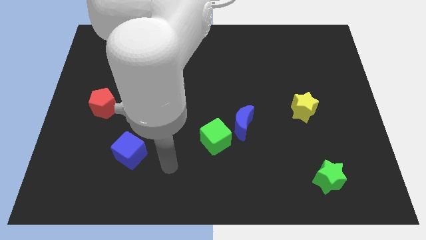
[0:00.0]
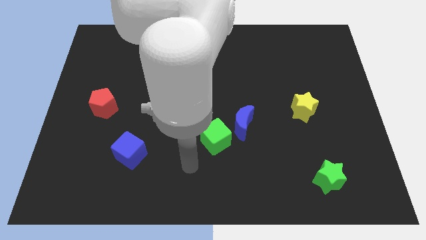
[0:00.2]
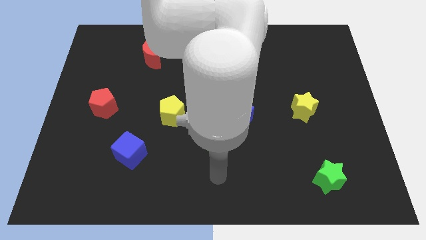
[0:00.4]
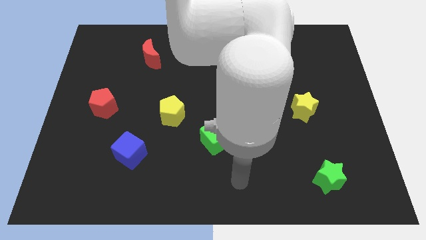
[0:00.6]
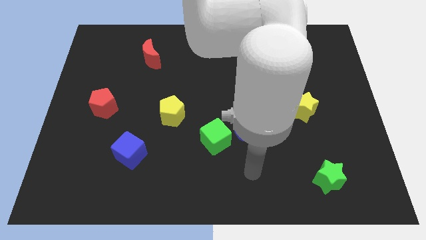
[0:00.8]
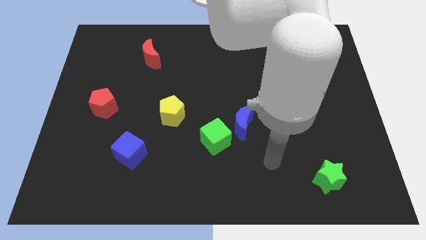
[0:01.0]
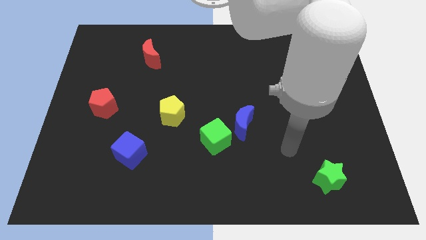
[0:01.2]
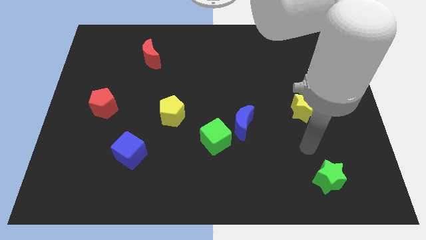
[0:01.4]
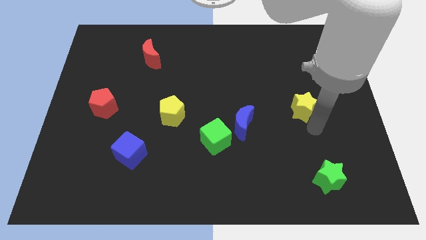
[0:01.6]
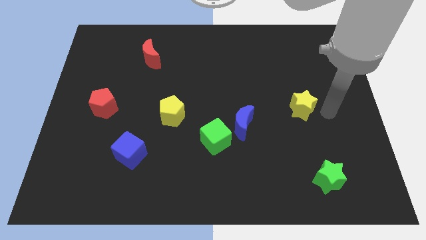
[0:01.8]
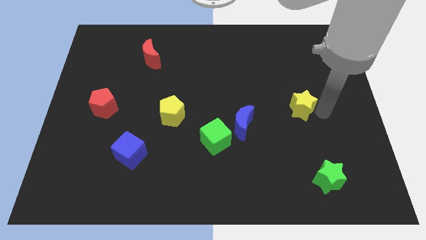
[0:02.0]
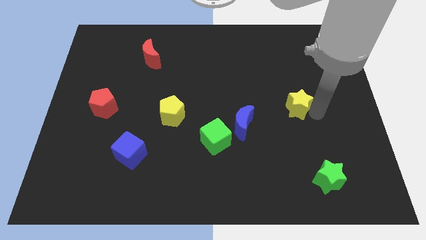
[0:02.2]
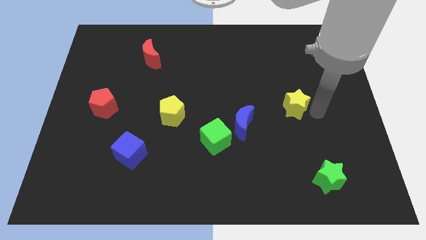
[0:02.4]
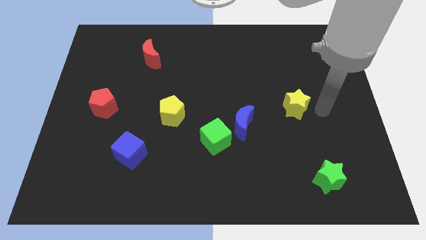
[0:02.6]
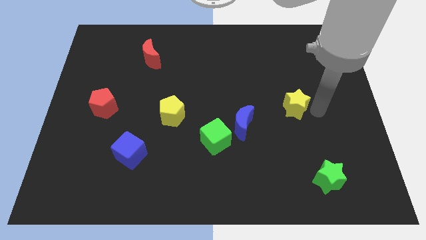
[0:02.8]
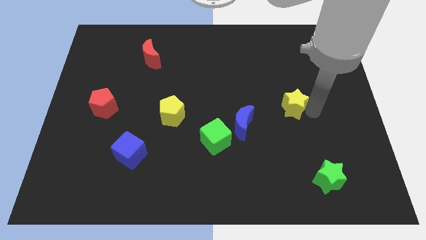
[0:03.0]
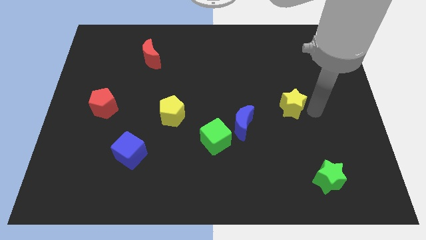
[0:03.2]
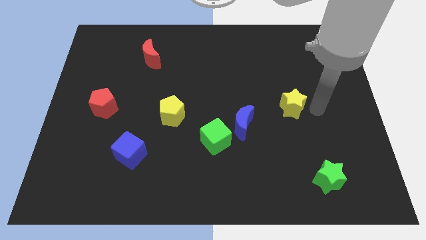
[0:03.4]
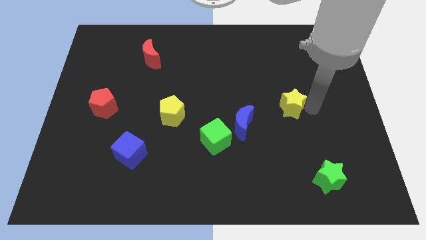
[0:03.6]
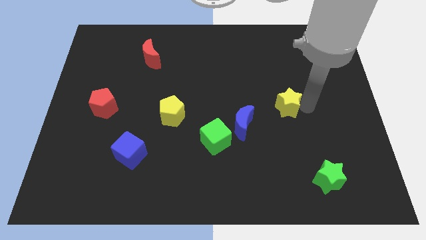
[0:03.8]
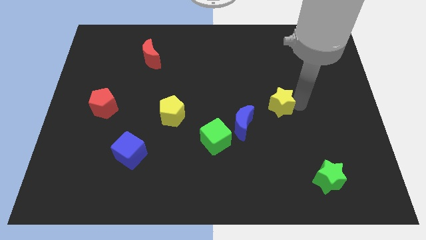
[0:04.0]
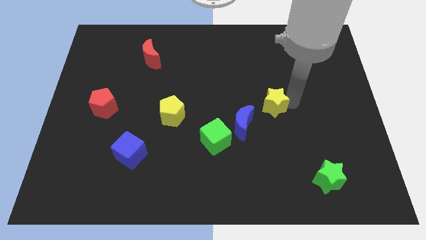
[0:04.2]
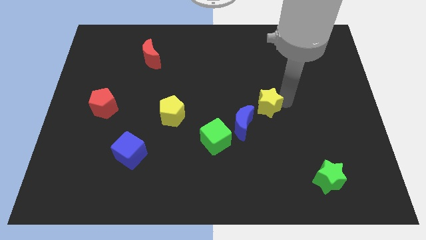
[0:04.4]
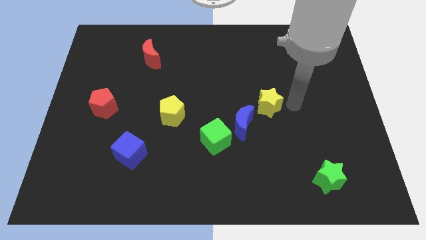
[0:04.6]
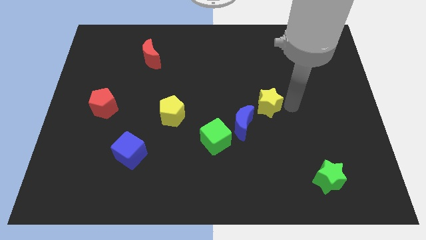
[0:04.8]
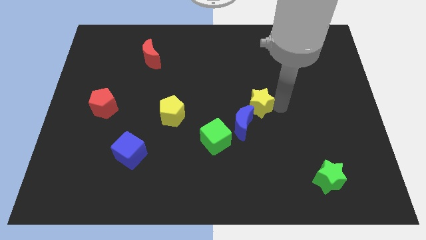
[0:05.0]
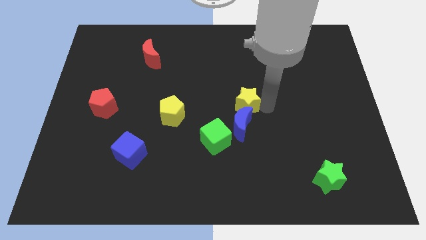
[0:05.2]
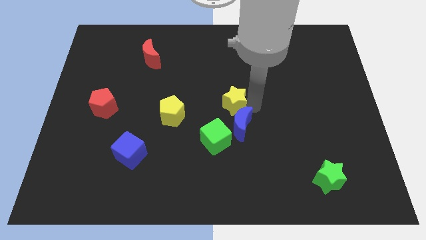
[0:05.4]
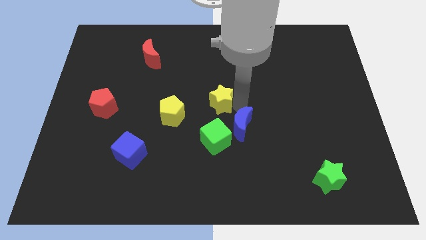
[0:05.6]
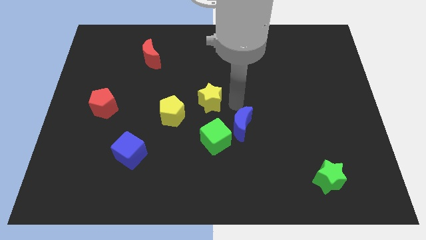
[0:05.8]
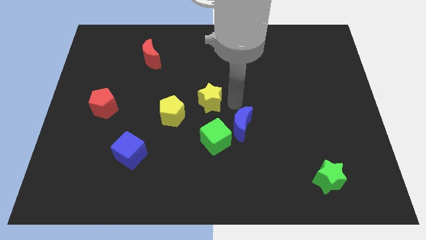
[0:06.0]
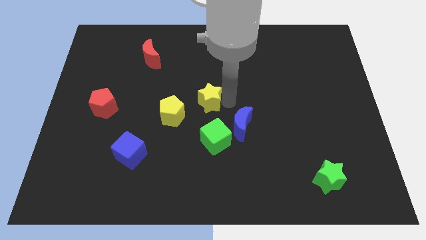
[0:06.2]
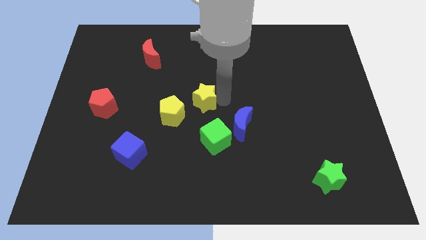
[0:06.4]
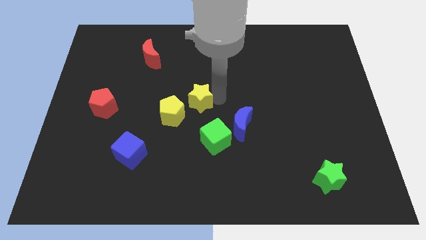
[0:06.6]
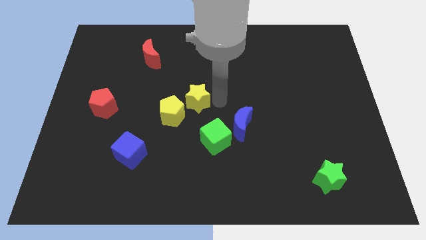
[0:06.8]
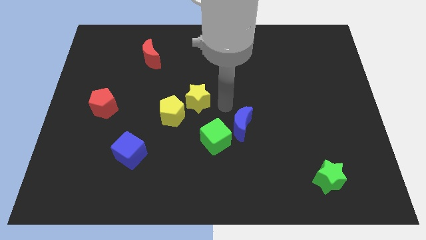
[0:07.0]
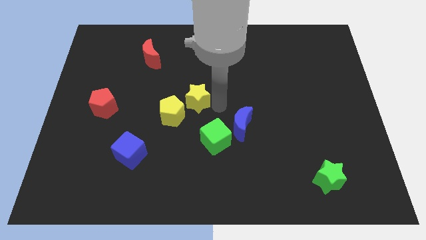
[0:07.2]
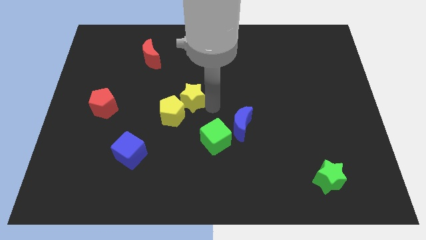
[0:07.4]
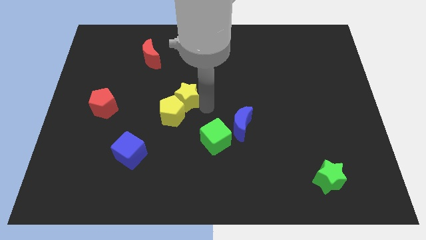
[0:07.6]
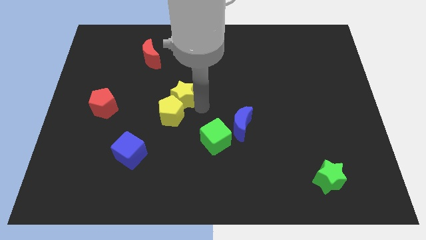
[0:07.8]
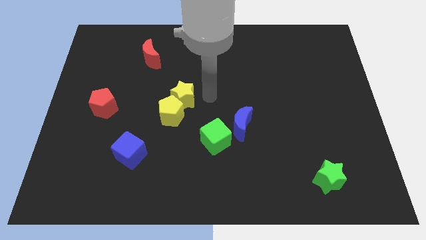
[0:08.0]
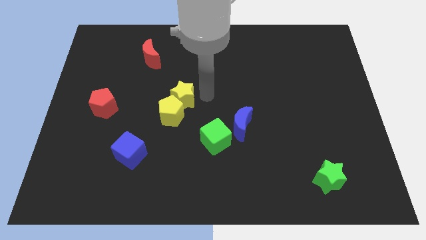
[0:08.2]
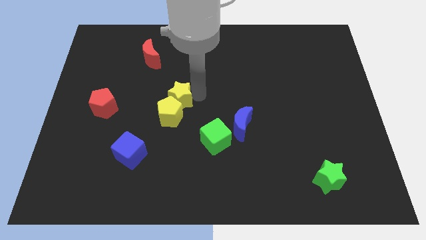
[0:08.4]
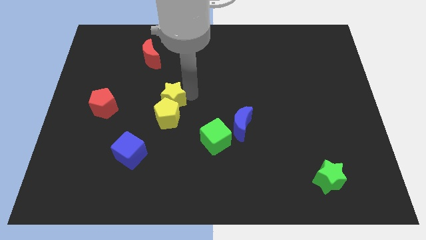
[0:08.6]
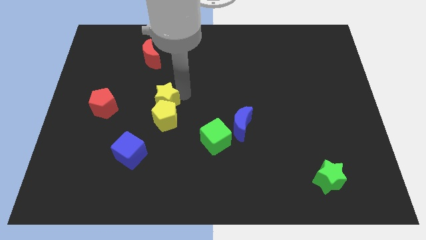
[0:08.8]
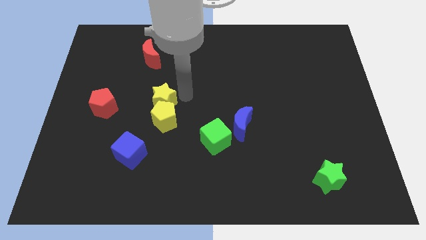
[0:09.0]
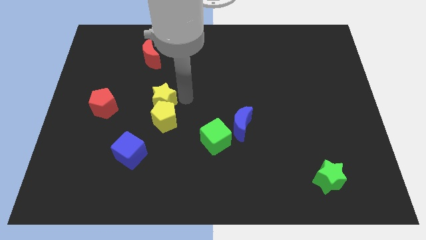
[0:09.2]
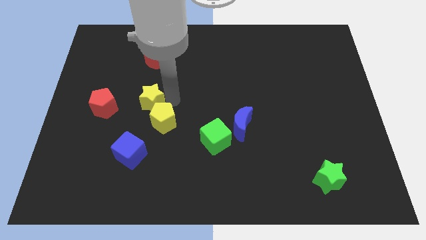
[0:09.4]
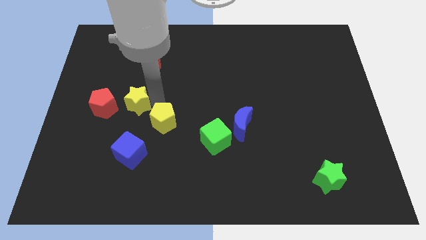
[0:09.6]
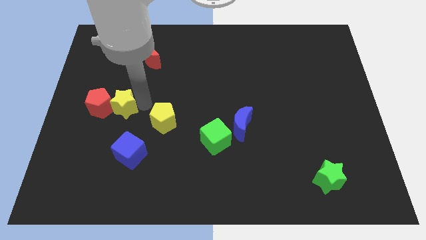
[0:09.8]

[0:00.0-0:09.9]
push the yellow star next to the red pentagon

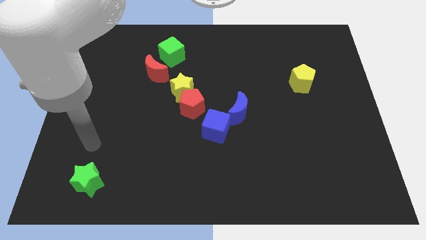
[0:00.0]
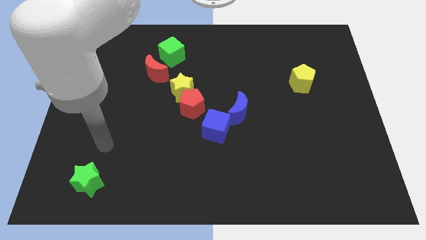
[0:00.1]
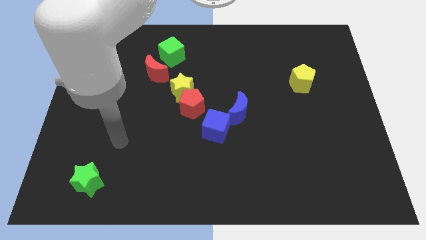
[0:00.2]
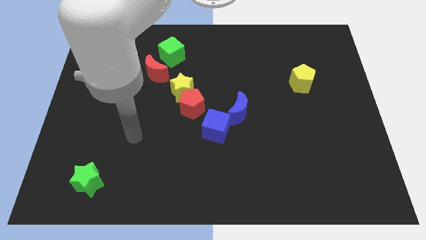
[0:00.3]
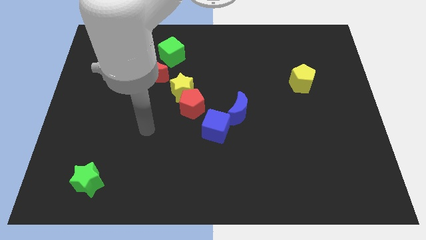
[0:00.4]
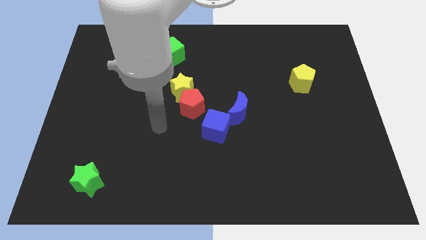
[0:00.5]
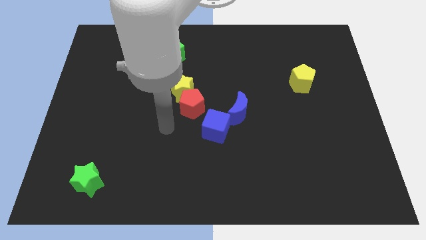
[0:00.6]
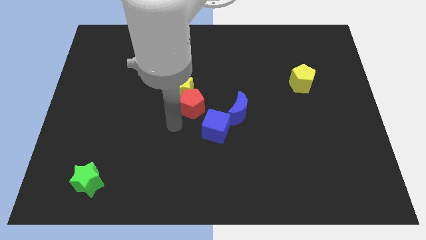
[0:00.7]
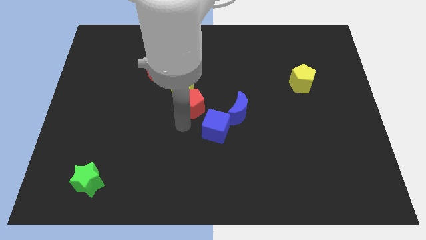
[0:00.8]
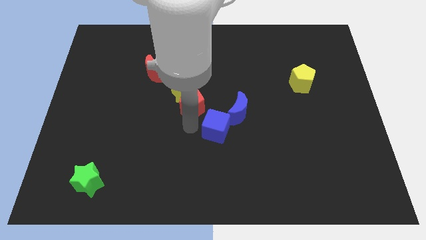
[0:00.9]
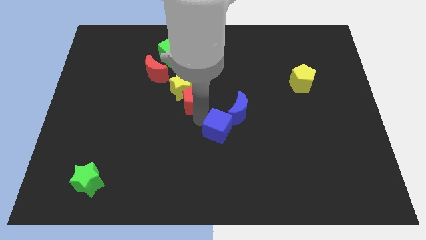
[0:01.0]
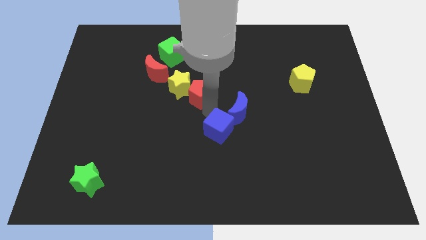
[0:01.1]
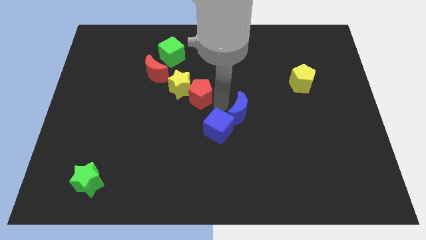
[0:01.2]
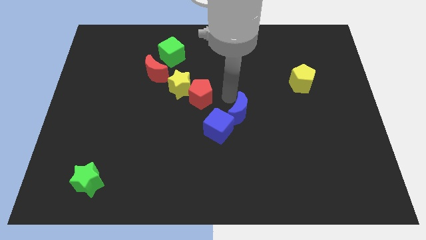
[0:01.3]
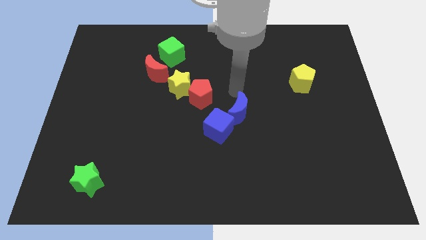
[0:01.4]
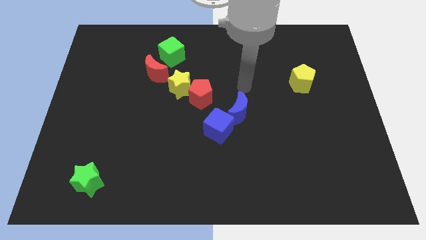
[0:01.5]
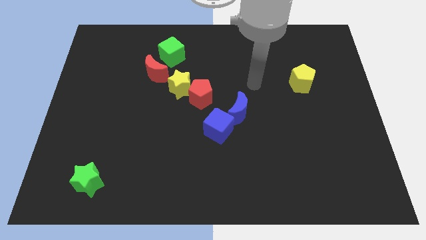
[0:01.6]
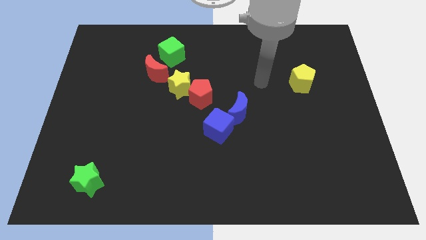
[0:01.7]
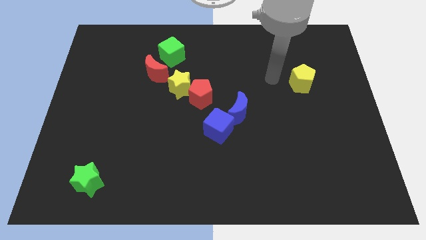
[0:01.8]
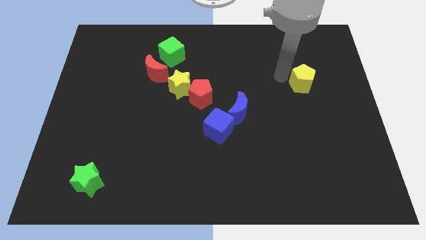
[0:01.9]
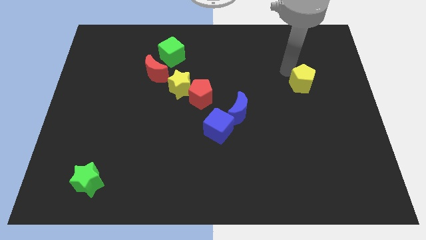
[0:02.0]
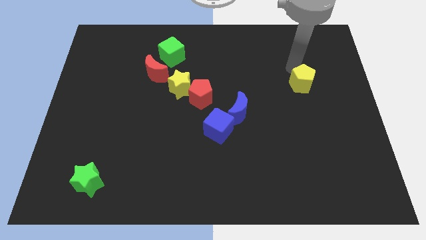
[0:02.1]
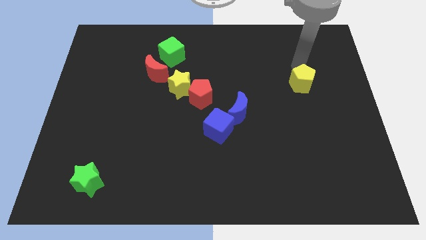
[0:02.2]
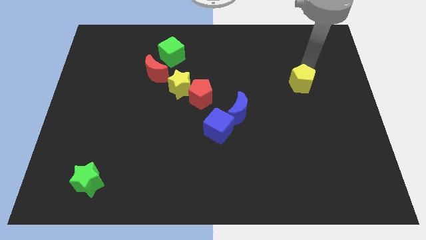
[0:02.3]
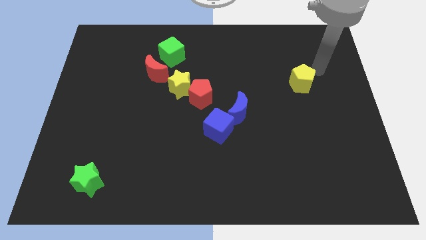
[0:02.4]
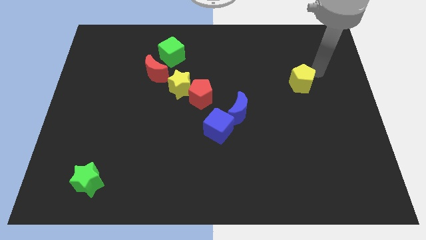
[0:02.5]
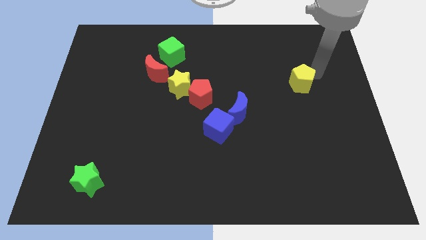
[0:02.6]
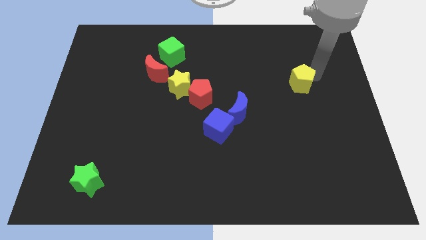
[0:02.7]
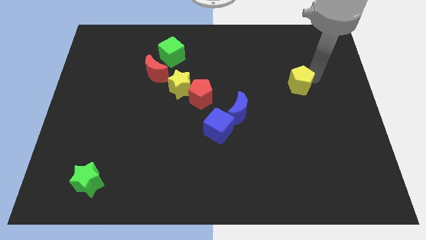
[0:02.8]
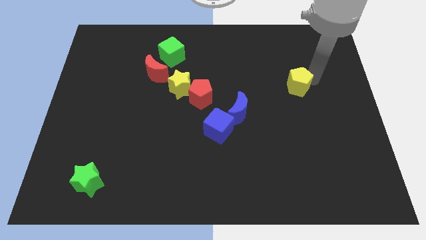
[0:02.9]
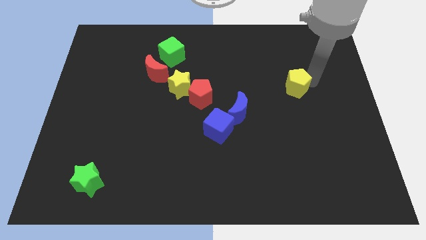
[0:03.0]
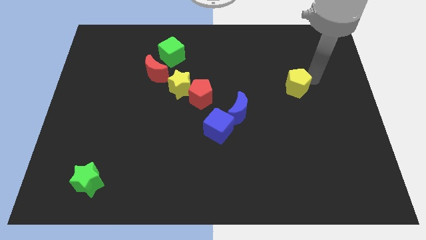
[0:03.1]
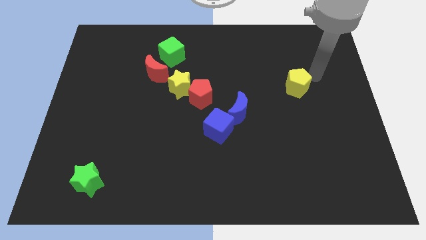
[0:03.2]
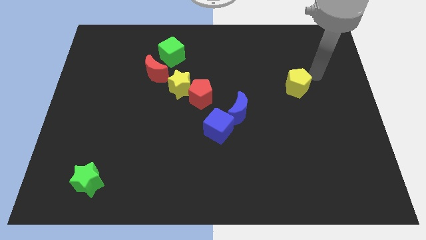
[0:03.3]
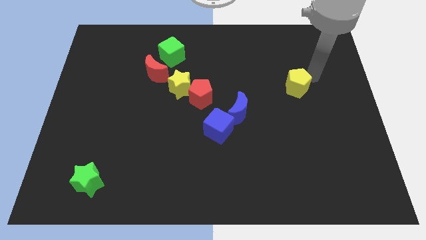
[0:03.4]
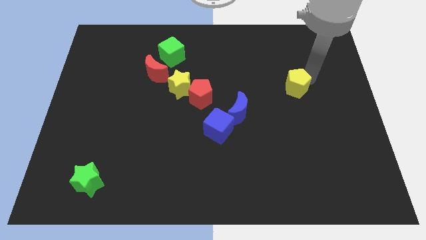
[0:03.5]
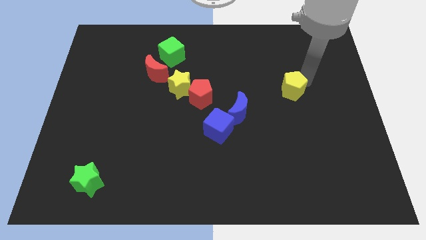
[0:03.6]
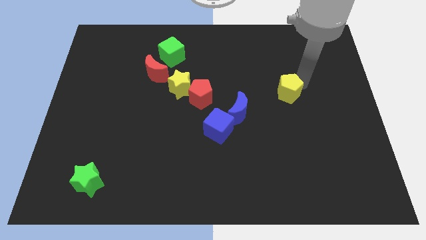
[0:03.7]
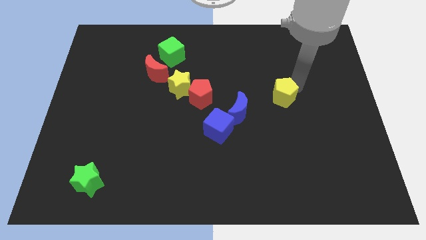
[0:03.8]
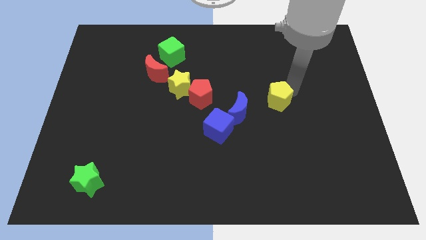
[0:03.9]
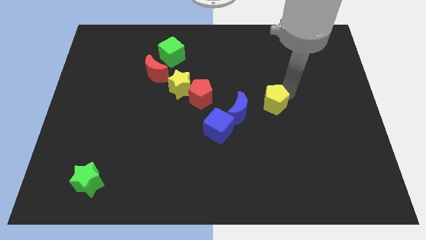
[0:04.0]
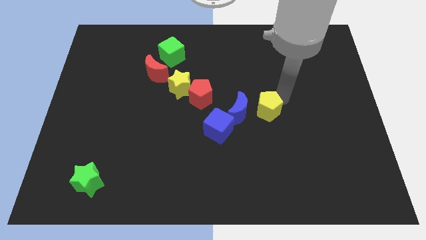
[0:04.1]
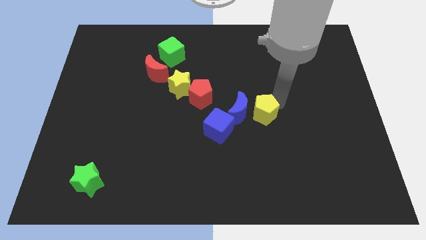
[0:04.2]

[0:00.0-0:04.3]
push the yellow pentagon next to the blue moon
